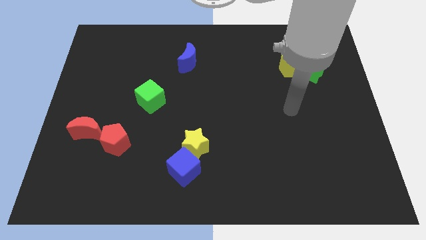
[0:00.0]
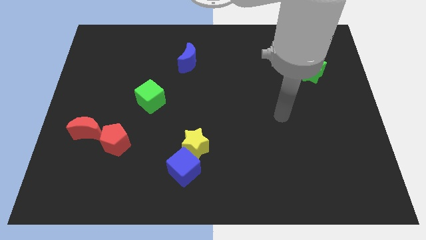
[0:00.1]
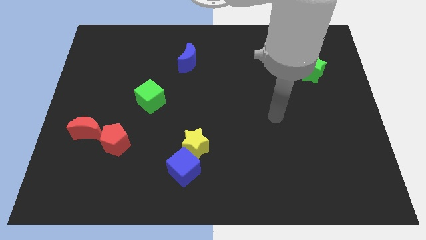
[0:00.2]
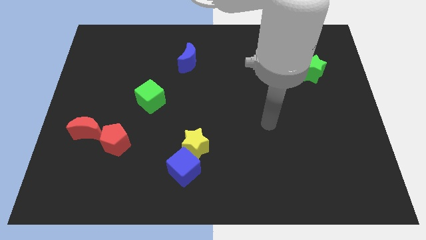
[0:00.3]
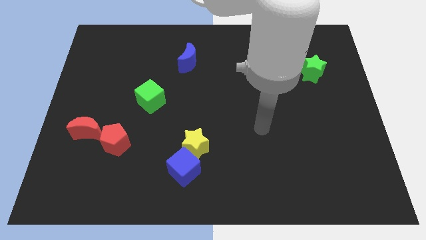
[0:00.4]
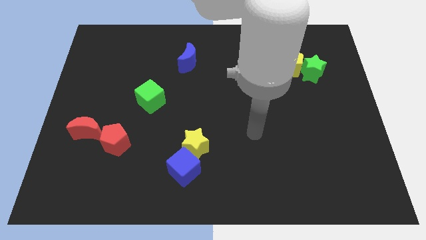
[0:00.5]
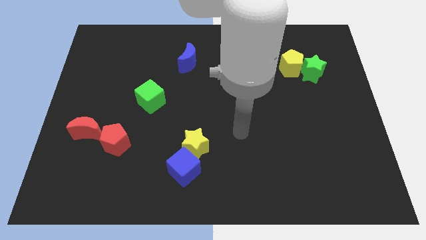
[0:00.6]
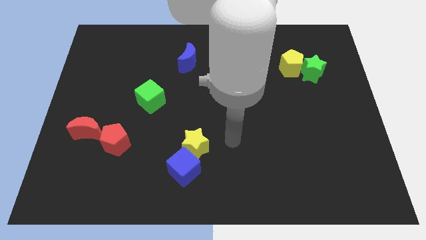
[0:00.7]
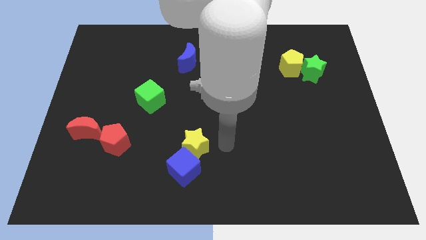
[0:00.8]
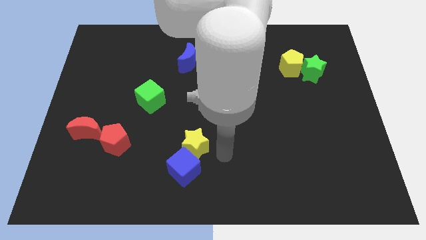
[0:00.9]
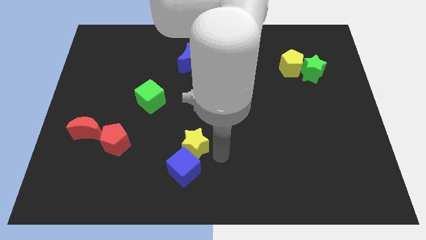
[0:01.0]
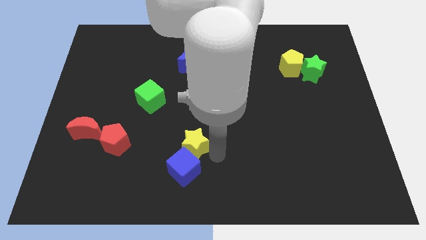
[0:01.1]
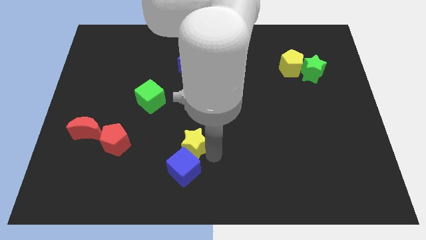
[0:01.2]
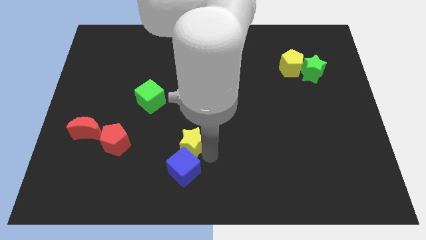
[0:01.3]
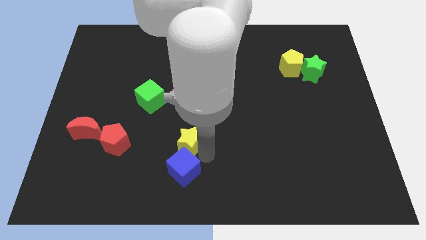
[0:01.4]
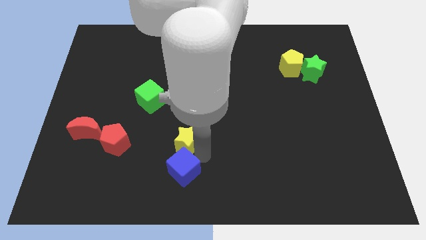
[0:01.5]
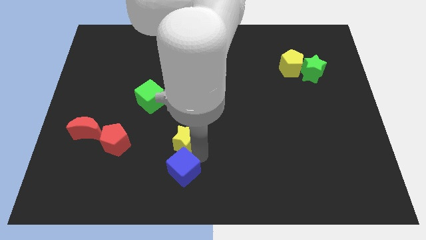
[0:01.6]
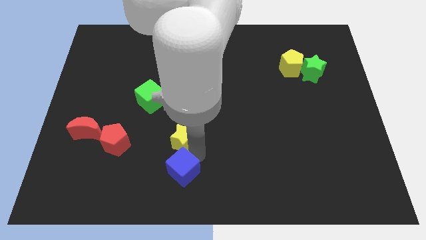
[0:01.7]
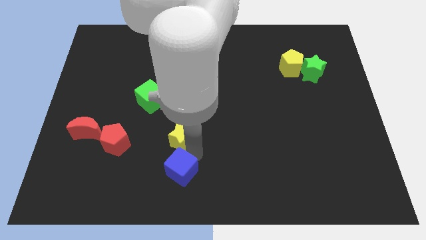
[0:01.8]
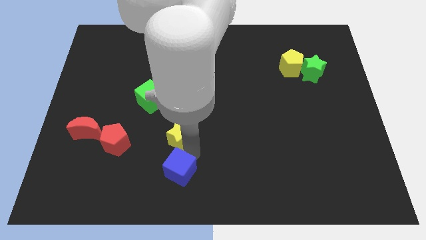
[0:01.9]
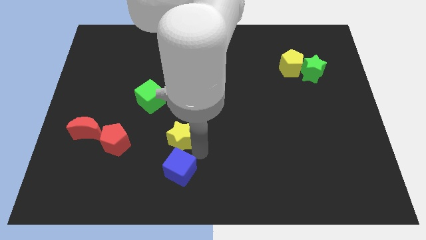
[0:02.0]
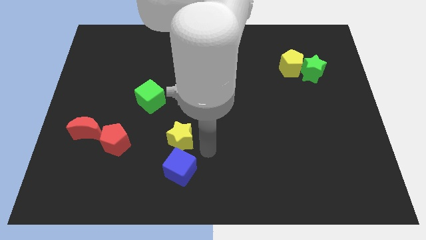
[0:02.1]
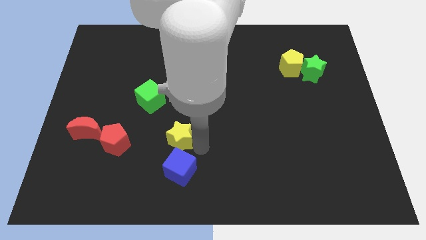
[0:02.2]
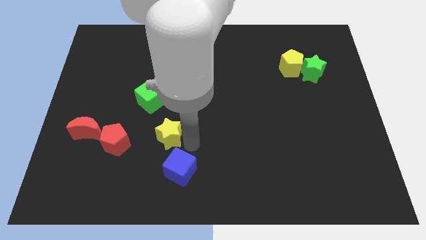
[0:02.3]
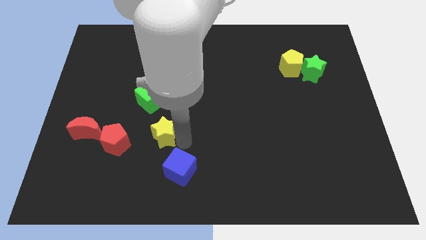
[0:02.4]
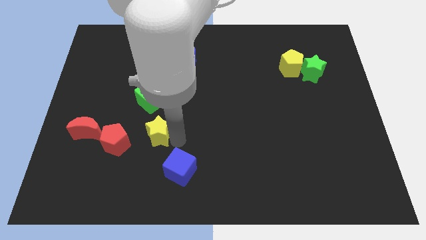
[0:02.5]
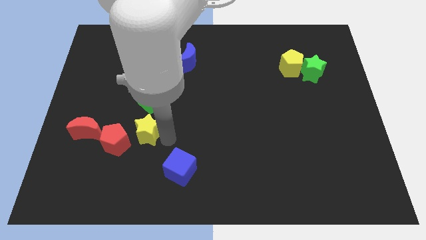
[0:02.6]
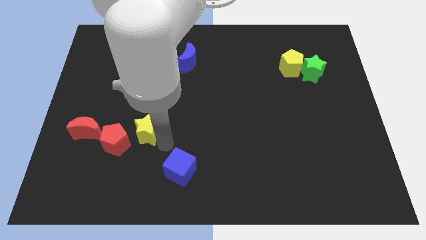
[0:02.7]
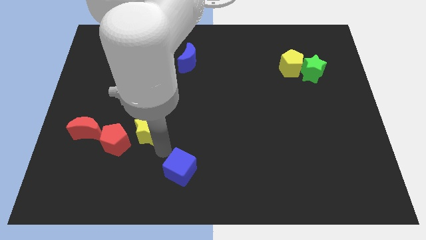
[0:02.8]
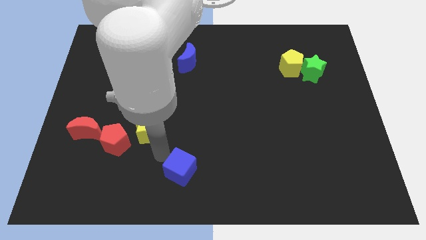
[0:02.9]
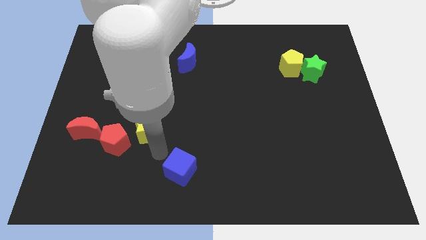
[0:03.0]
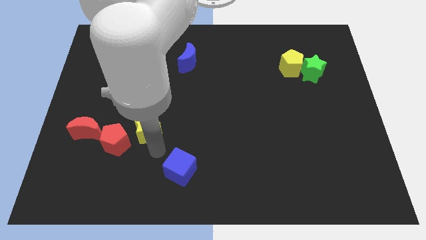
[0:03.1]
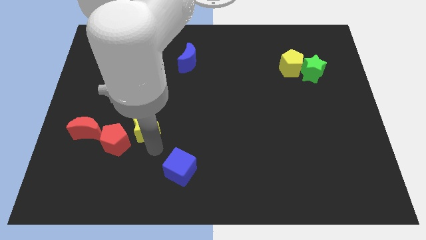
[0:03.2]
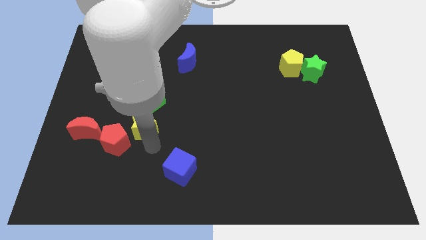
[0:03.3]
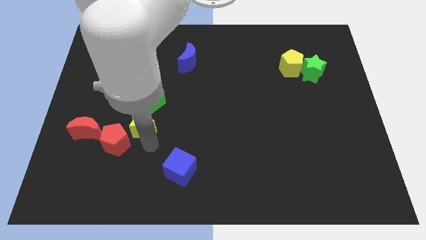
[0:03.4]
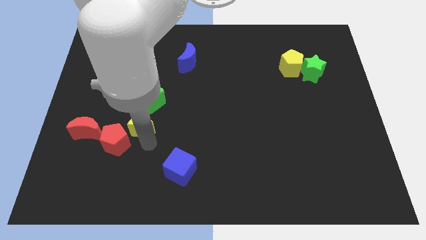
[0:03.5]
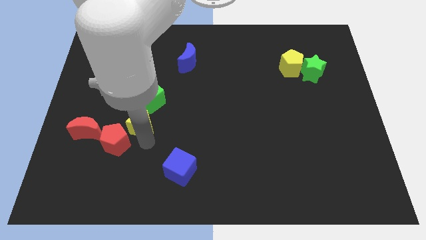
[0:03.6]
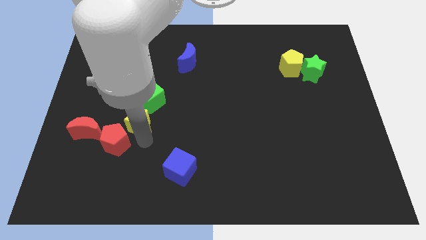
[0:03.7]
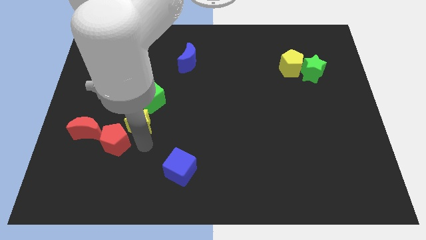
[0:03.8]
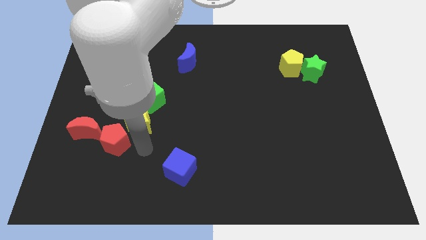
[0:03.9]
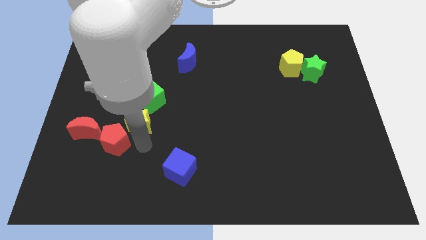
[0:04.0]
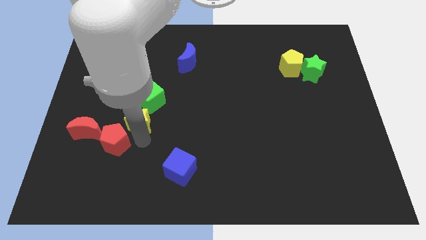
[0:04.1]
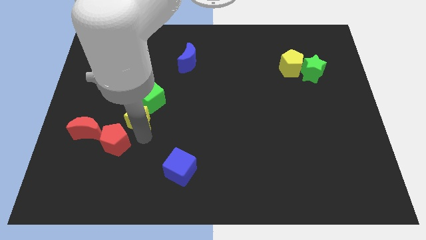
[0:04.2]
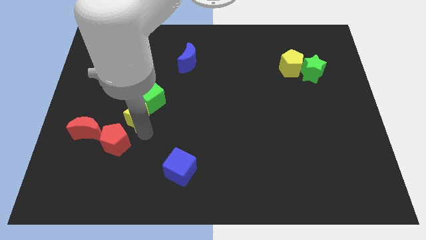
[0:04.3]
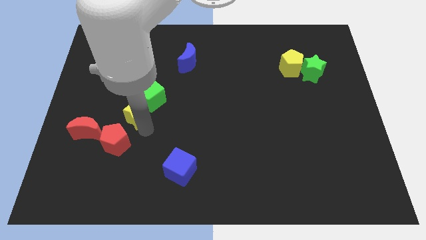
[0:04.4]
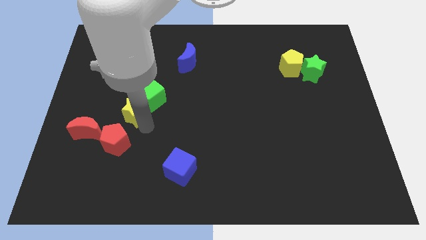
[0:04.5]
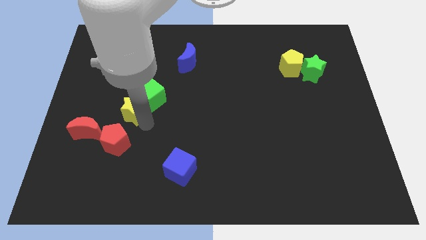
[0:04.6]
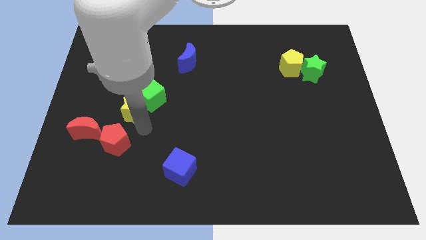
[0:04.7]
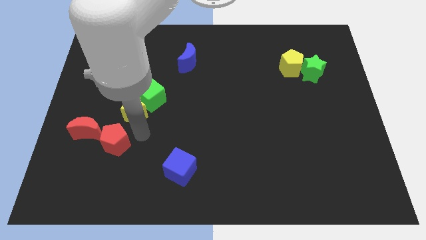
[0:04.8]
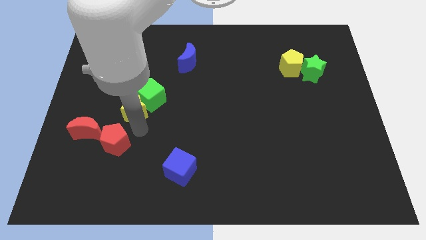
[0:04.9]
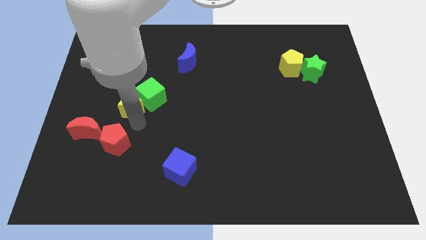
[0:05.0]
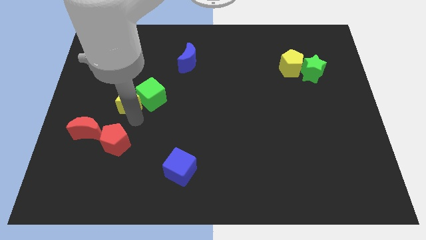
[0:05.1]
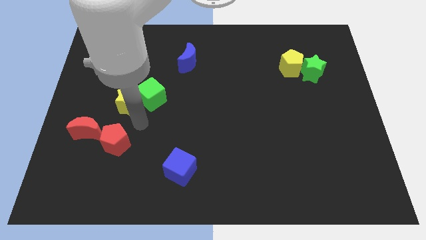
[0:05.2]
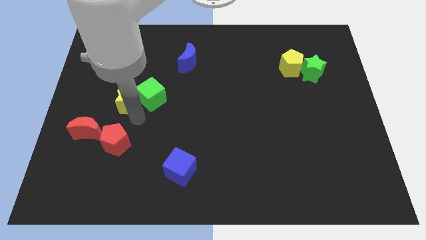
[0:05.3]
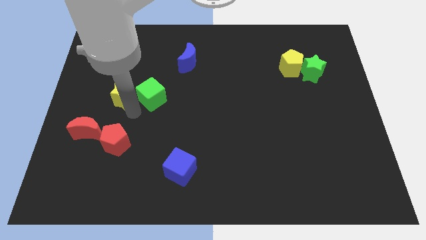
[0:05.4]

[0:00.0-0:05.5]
slide the yellow star upwards and left

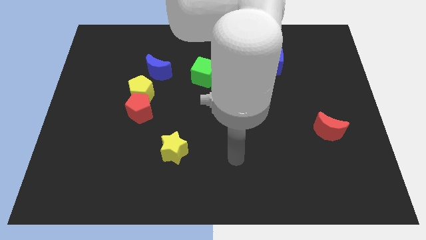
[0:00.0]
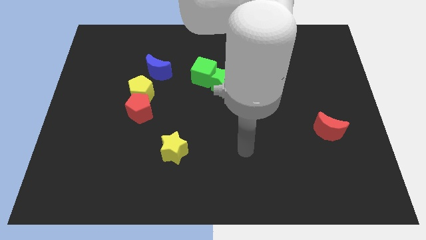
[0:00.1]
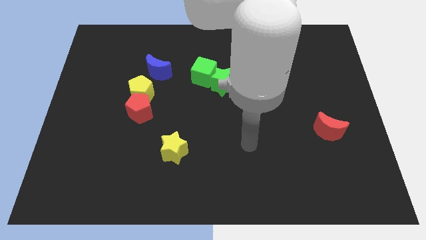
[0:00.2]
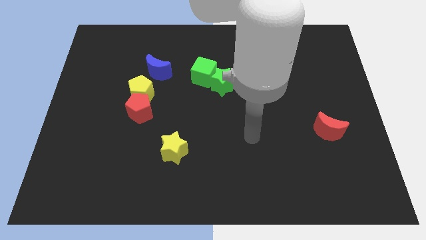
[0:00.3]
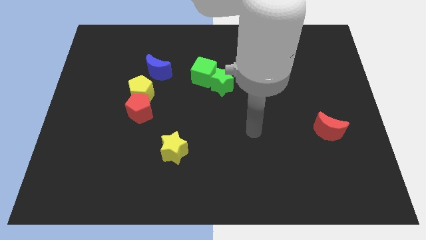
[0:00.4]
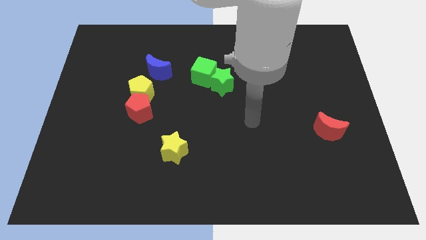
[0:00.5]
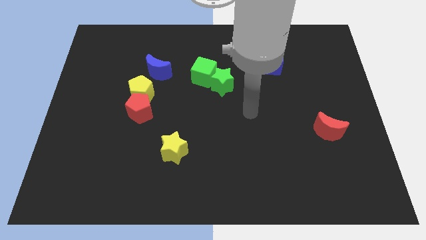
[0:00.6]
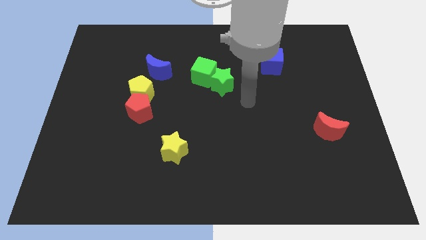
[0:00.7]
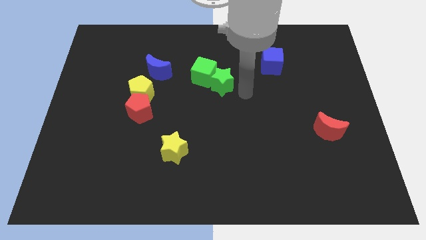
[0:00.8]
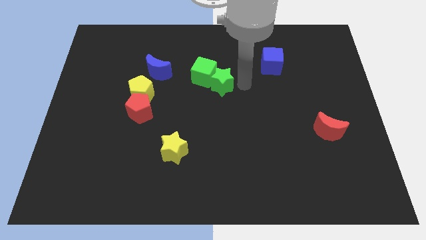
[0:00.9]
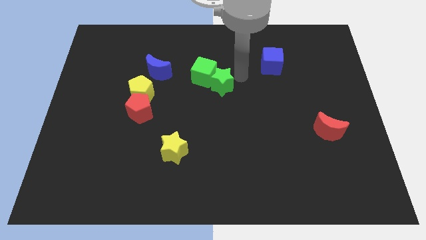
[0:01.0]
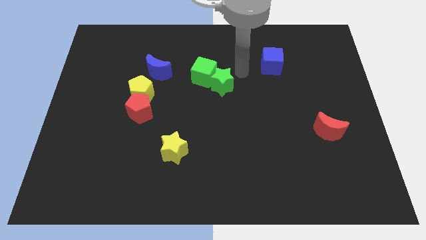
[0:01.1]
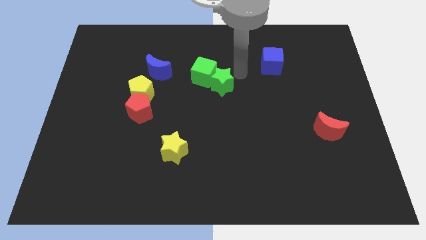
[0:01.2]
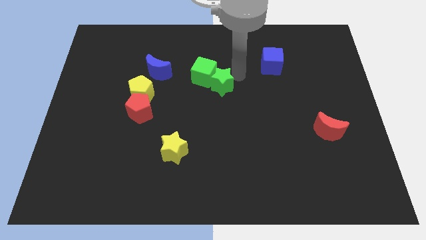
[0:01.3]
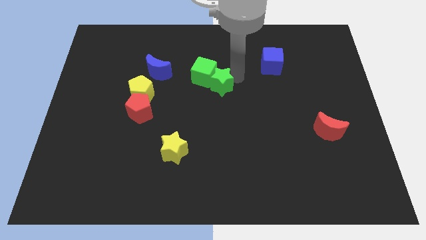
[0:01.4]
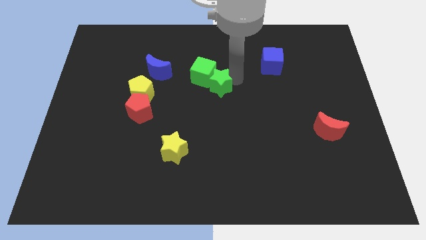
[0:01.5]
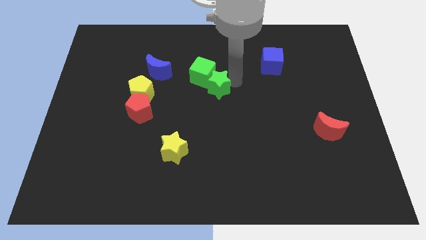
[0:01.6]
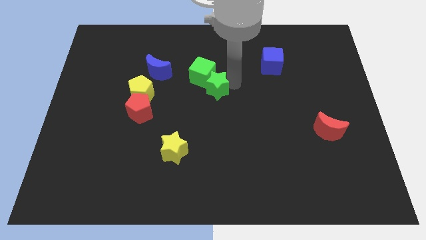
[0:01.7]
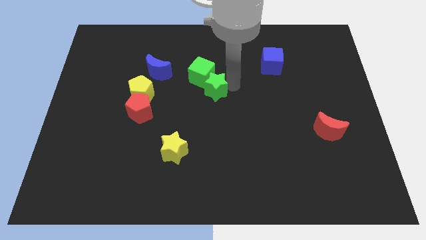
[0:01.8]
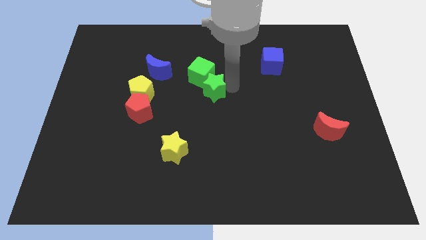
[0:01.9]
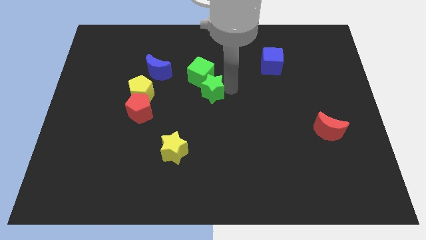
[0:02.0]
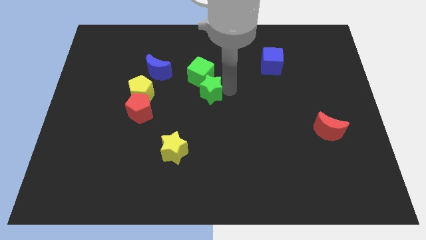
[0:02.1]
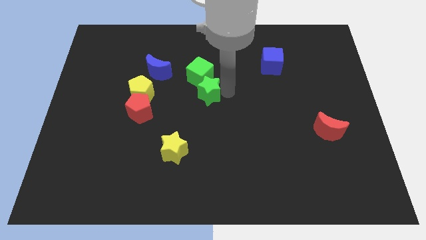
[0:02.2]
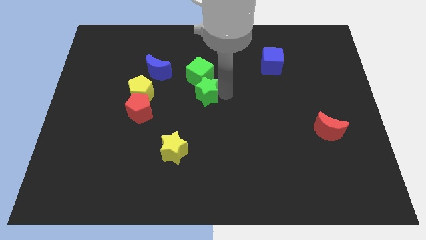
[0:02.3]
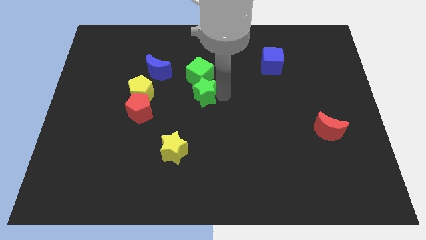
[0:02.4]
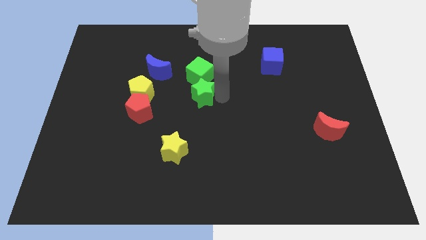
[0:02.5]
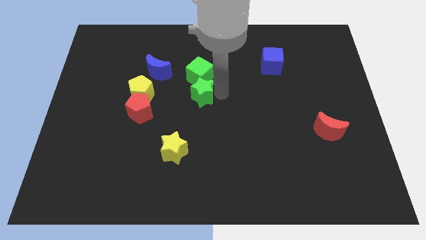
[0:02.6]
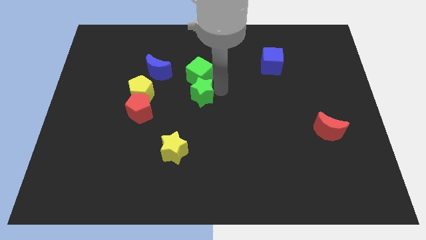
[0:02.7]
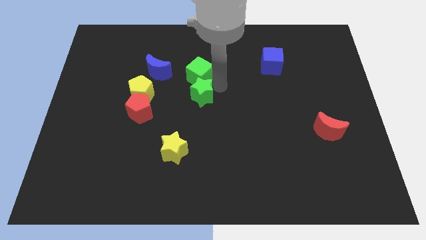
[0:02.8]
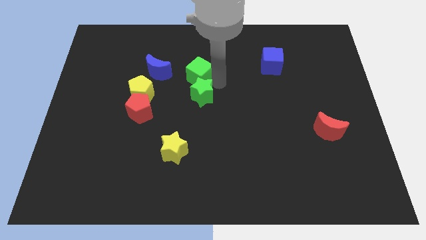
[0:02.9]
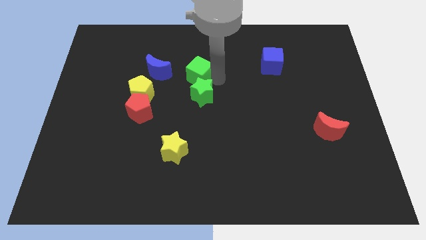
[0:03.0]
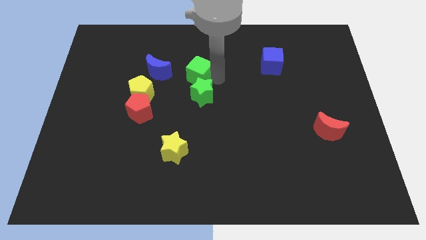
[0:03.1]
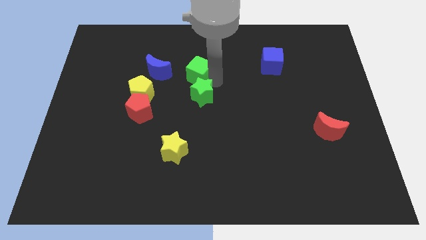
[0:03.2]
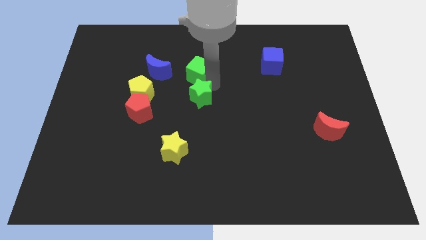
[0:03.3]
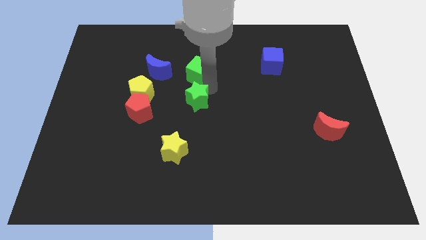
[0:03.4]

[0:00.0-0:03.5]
slide the green star downwards and then left a little
